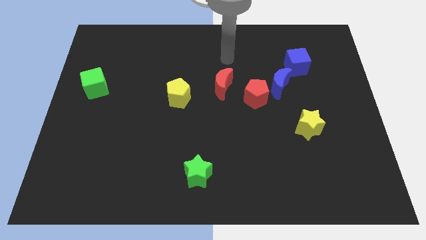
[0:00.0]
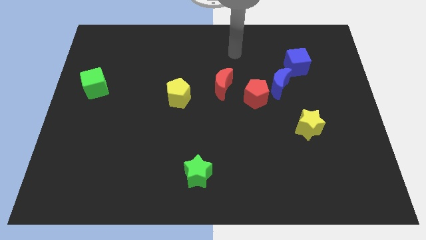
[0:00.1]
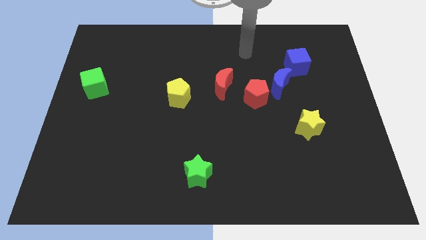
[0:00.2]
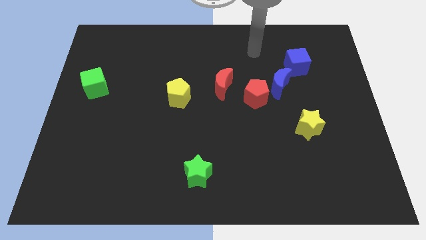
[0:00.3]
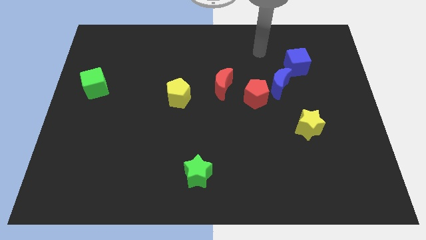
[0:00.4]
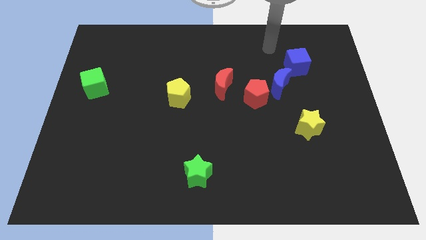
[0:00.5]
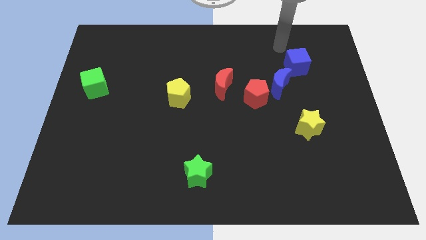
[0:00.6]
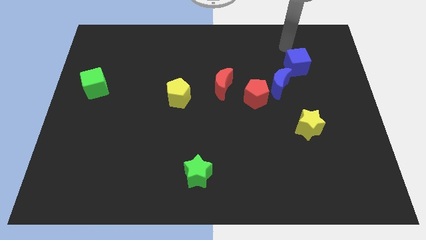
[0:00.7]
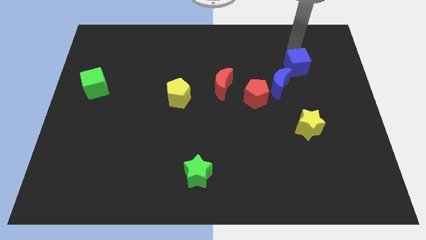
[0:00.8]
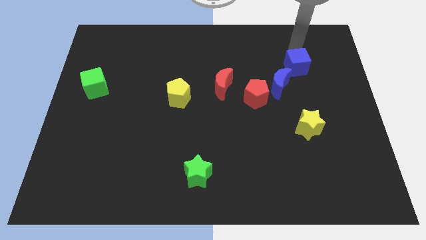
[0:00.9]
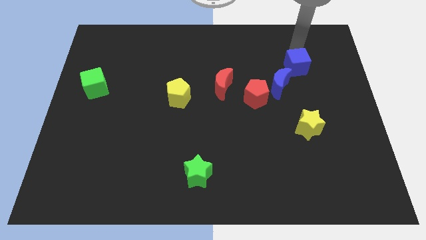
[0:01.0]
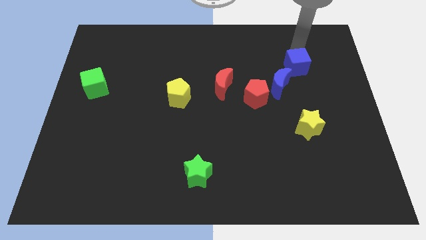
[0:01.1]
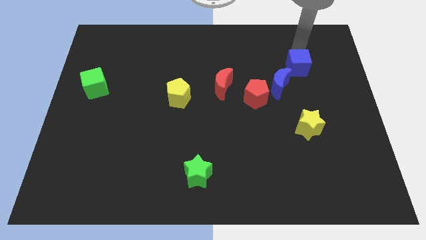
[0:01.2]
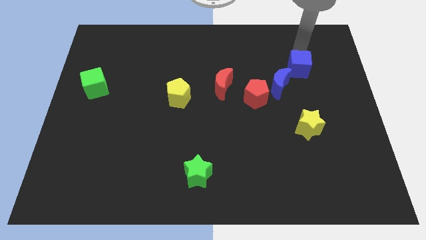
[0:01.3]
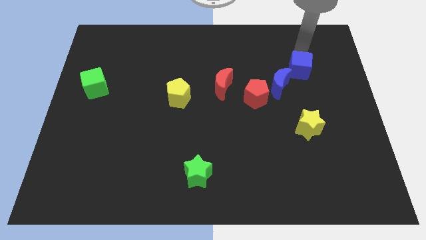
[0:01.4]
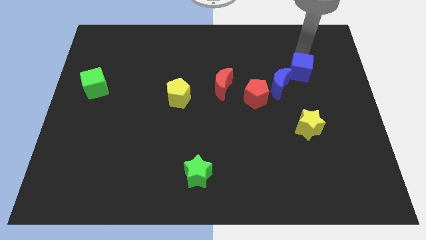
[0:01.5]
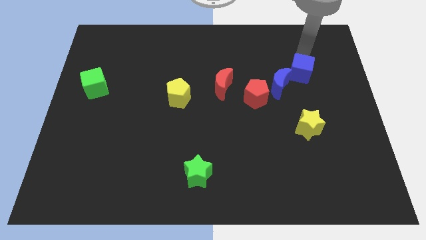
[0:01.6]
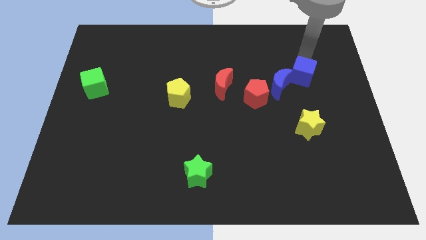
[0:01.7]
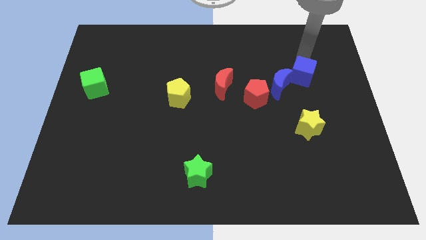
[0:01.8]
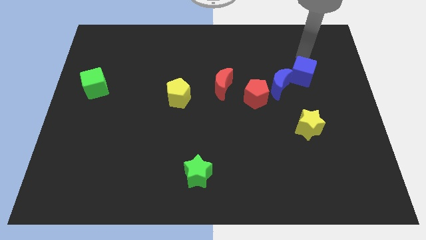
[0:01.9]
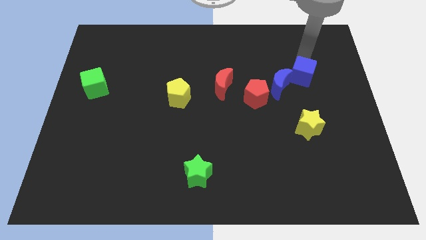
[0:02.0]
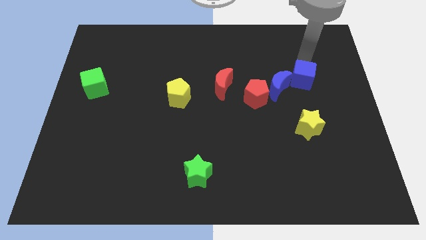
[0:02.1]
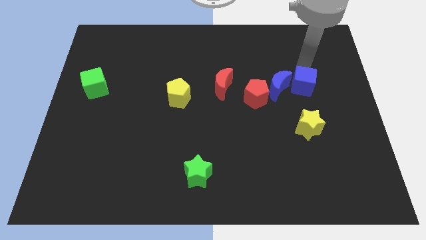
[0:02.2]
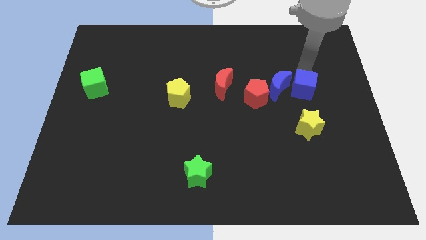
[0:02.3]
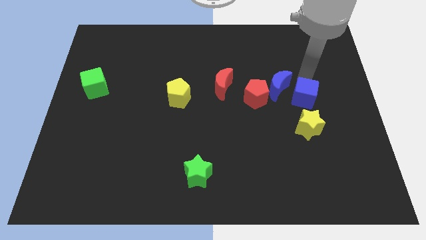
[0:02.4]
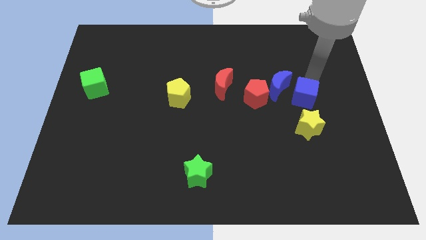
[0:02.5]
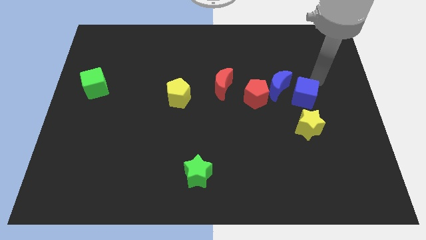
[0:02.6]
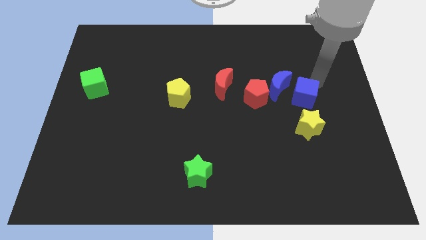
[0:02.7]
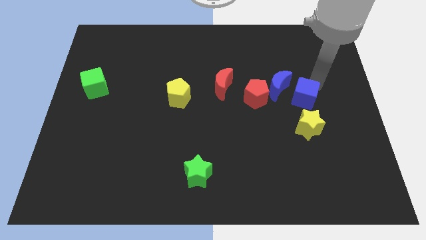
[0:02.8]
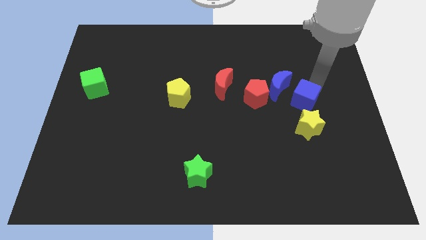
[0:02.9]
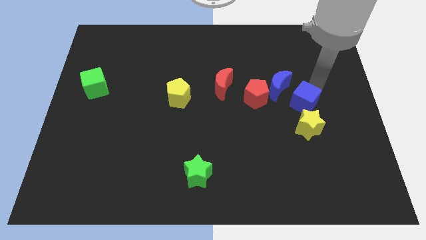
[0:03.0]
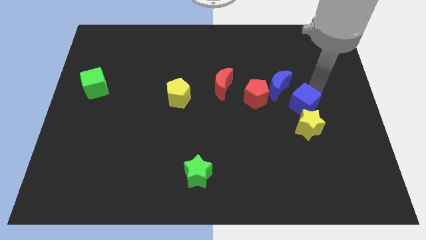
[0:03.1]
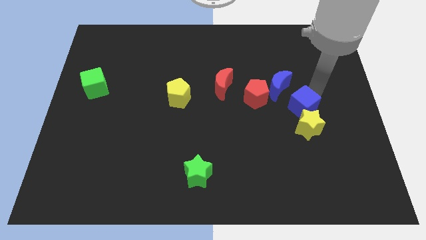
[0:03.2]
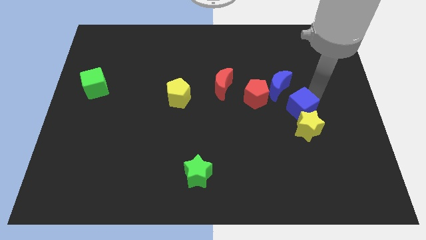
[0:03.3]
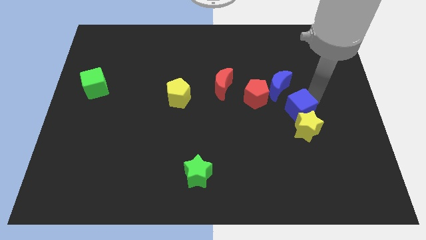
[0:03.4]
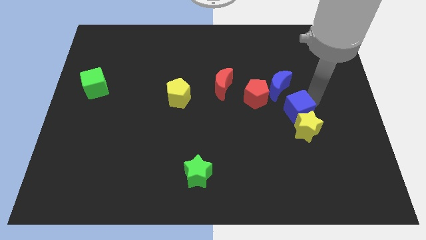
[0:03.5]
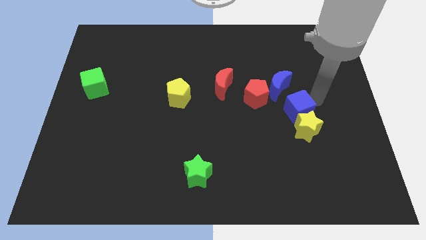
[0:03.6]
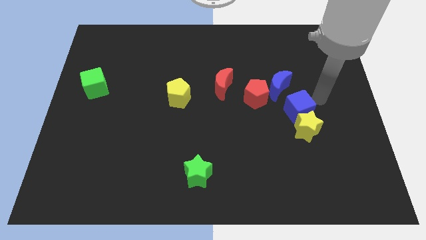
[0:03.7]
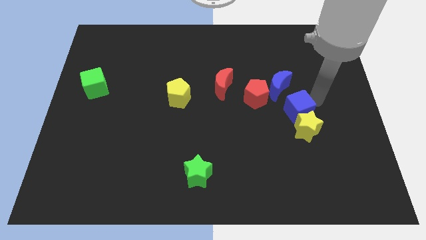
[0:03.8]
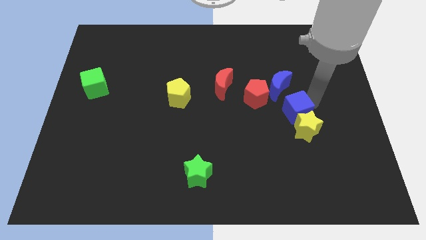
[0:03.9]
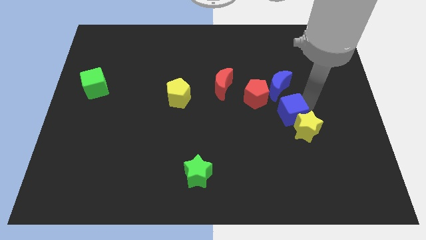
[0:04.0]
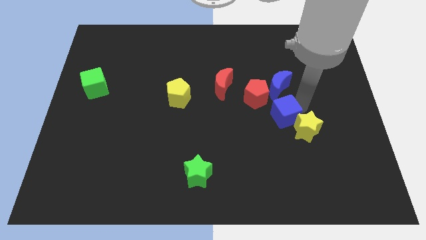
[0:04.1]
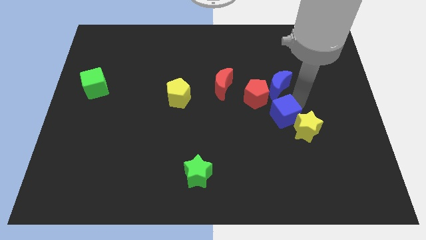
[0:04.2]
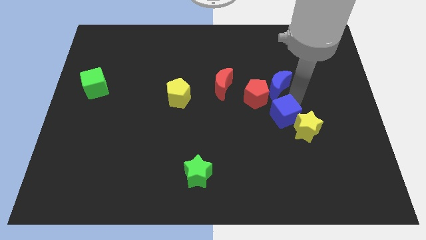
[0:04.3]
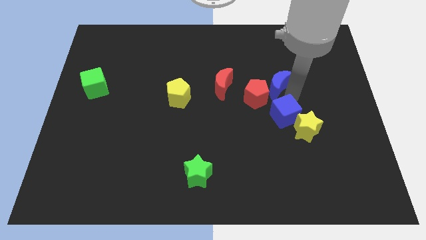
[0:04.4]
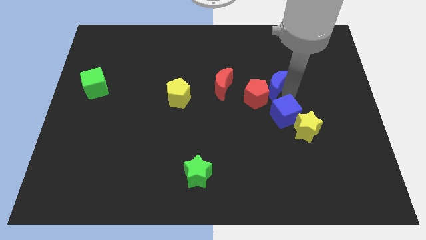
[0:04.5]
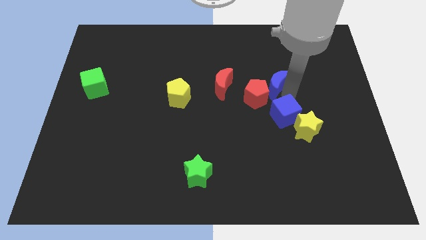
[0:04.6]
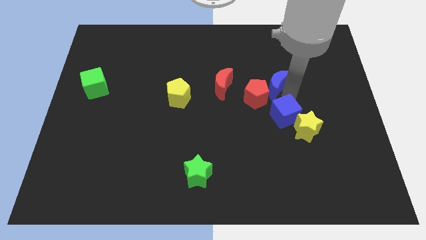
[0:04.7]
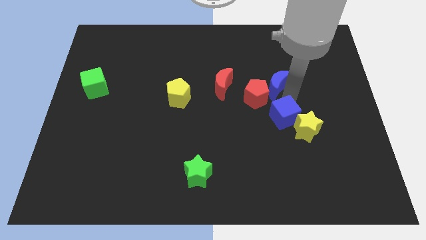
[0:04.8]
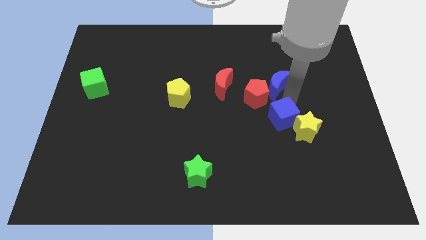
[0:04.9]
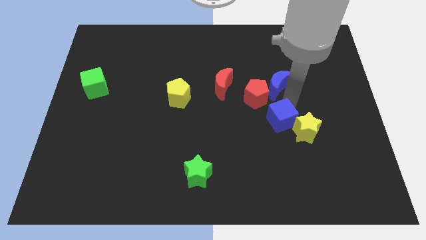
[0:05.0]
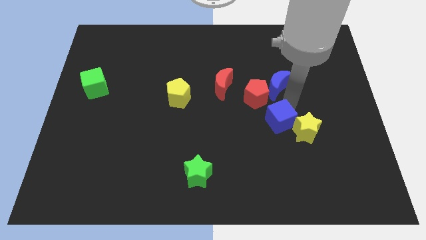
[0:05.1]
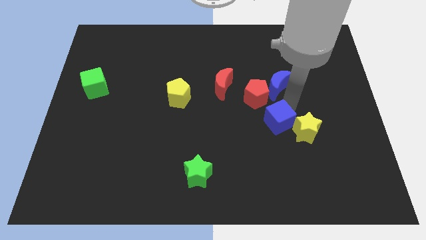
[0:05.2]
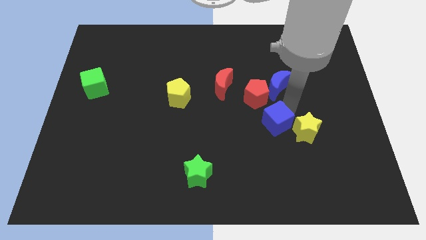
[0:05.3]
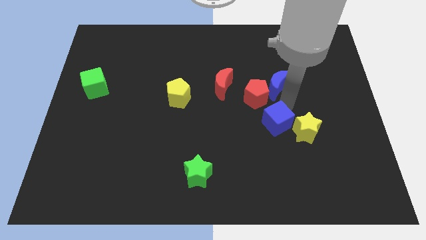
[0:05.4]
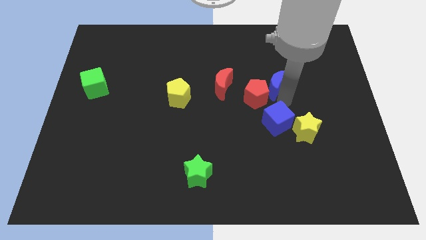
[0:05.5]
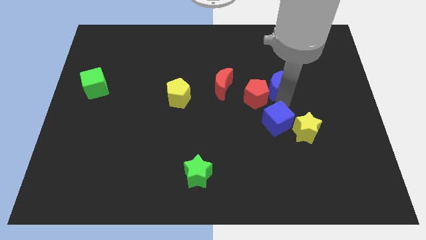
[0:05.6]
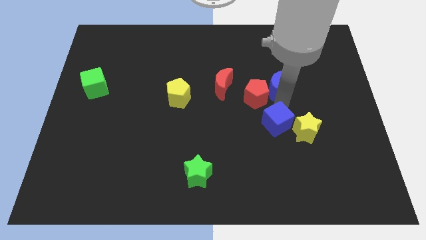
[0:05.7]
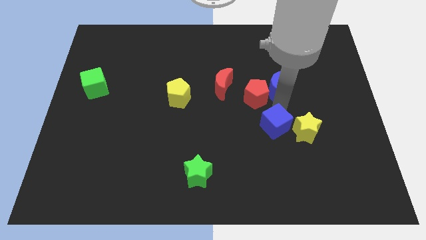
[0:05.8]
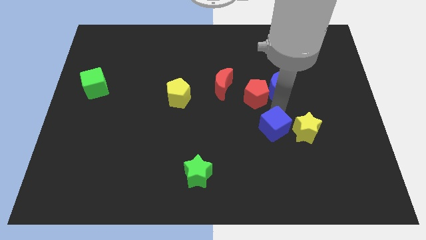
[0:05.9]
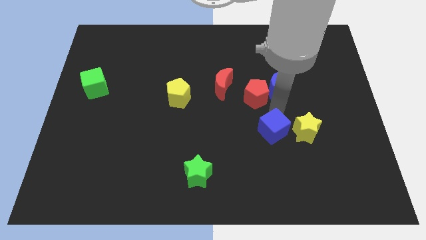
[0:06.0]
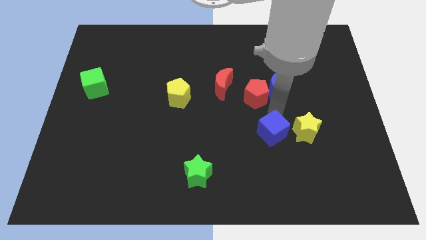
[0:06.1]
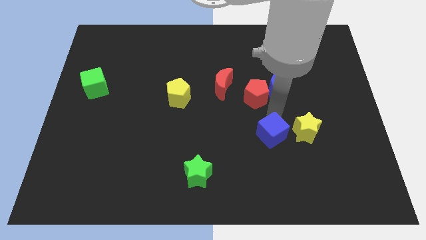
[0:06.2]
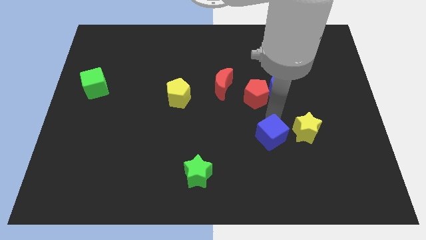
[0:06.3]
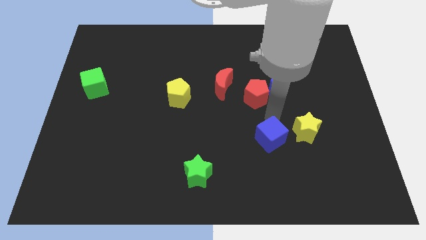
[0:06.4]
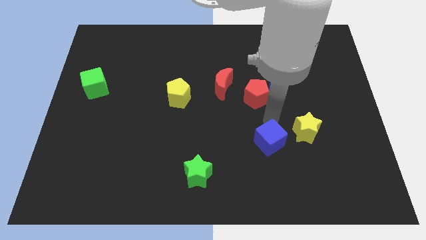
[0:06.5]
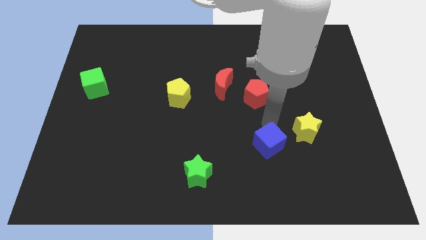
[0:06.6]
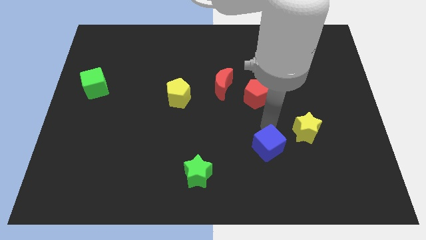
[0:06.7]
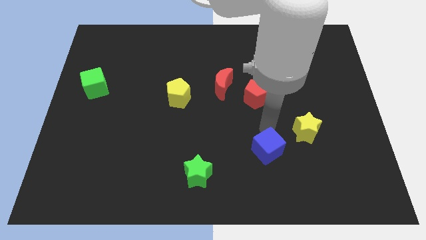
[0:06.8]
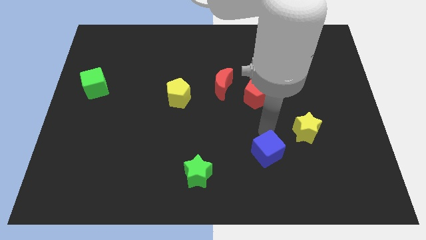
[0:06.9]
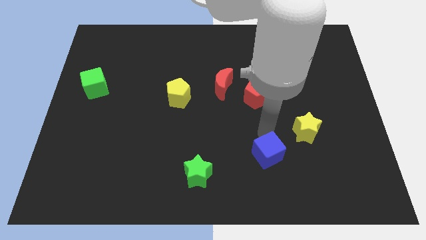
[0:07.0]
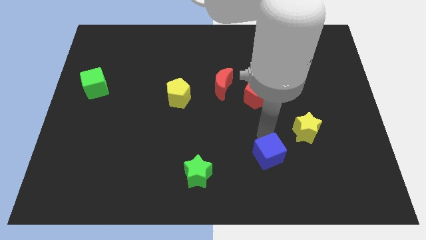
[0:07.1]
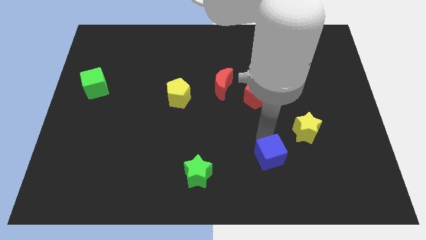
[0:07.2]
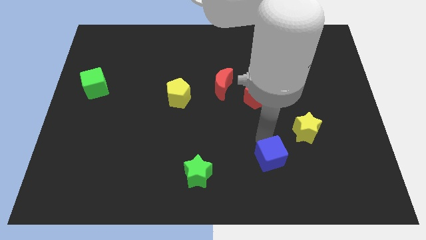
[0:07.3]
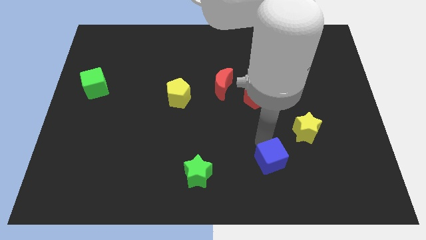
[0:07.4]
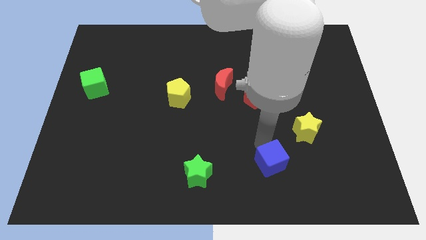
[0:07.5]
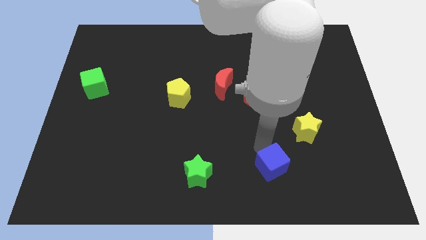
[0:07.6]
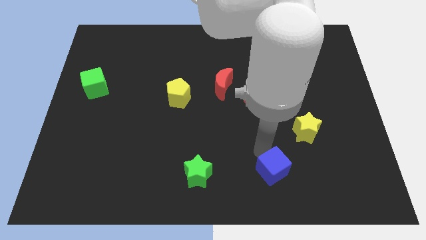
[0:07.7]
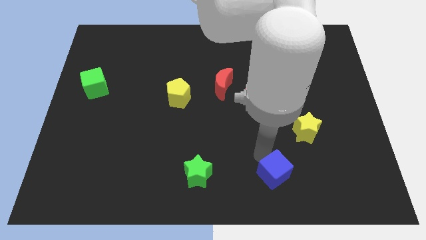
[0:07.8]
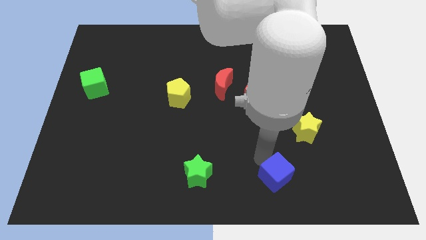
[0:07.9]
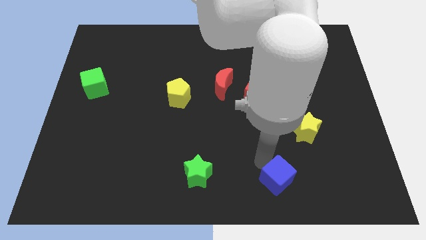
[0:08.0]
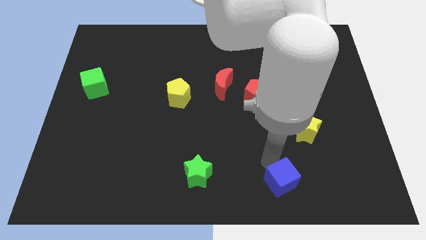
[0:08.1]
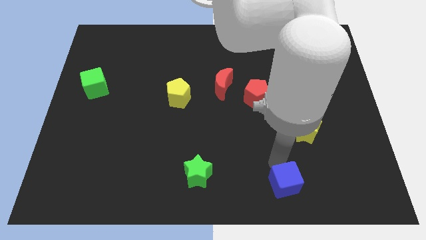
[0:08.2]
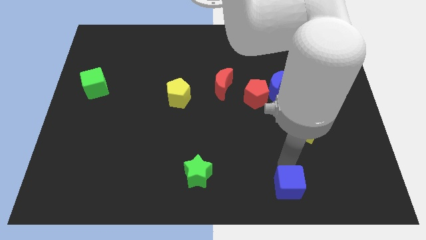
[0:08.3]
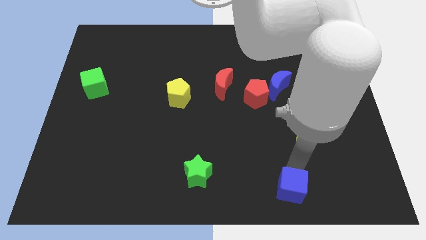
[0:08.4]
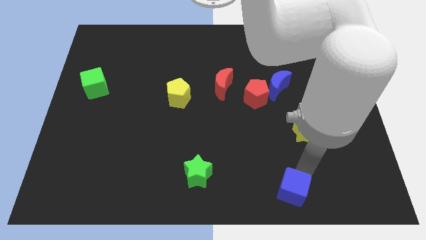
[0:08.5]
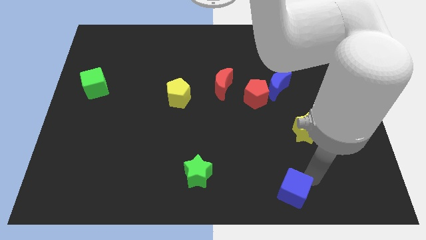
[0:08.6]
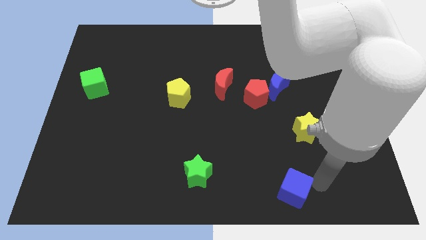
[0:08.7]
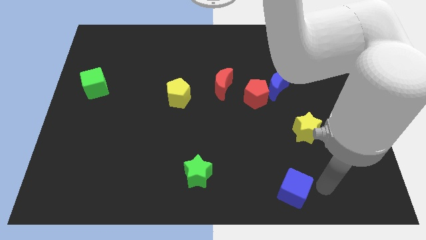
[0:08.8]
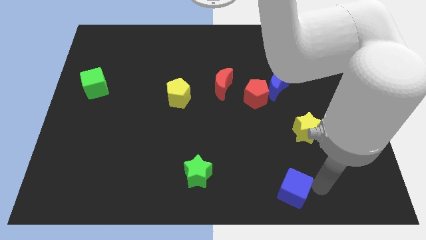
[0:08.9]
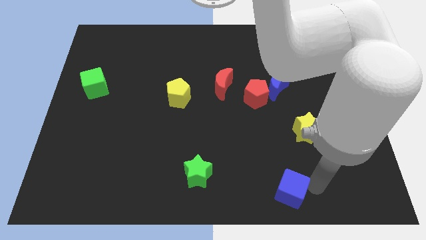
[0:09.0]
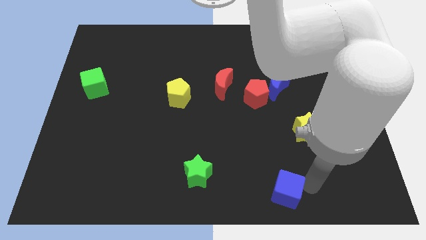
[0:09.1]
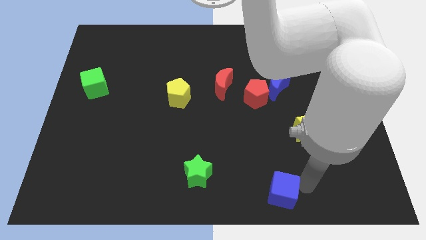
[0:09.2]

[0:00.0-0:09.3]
push the blue cube to the bottom
